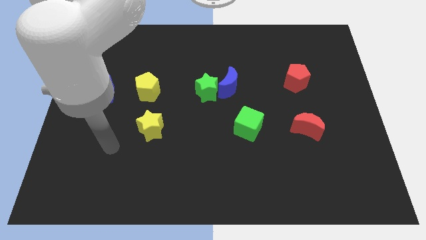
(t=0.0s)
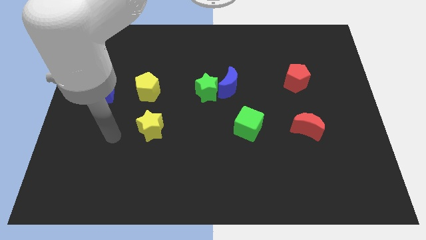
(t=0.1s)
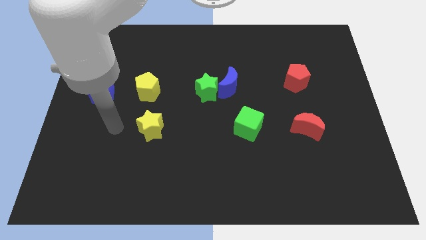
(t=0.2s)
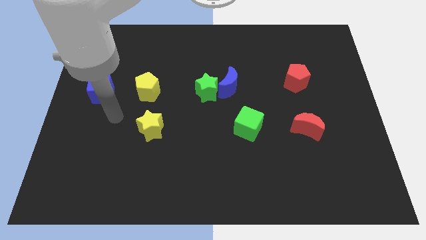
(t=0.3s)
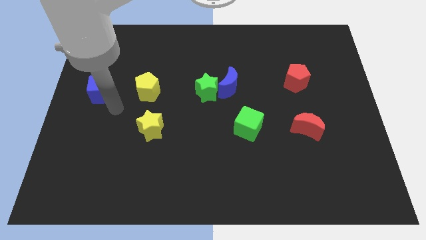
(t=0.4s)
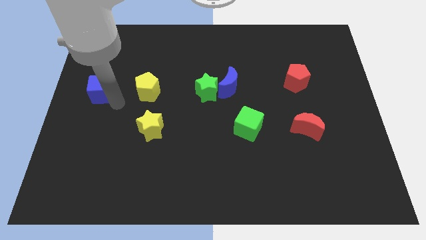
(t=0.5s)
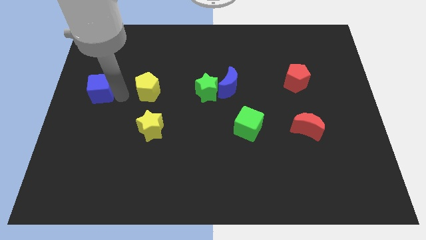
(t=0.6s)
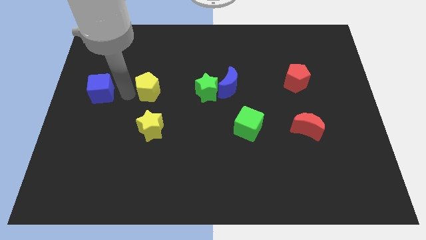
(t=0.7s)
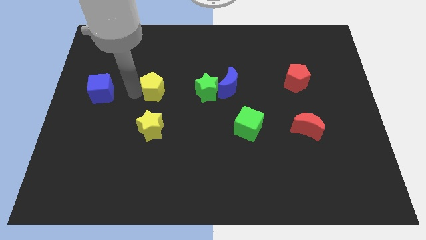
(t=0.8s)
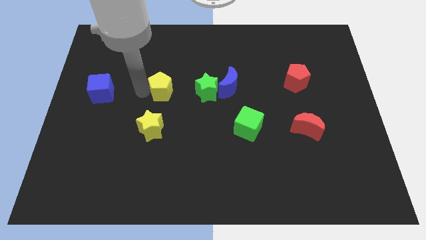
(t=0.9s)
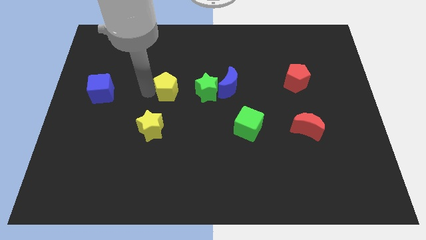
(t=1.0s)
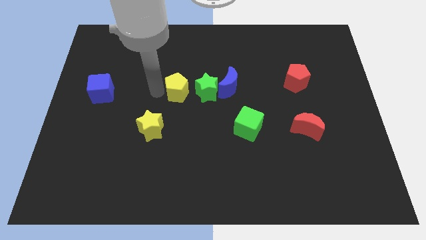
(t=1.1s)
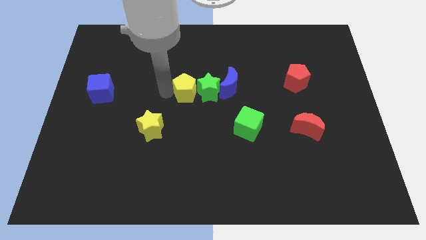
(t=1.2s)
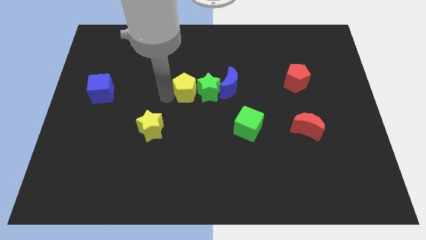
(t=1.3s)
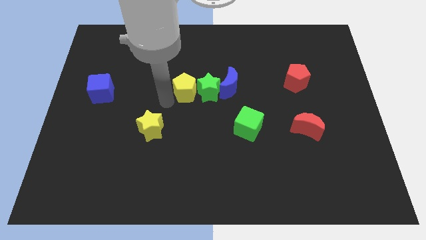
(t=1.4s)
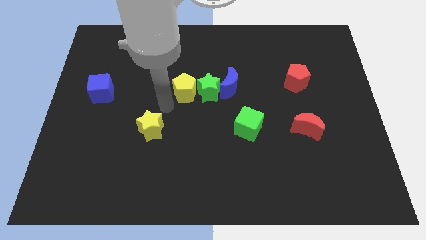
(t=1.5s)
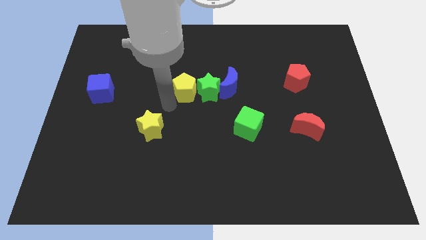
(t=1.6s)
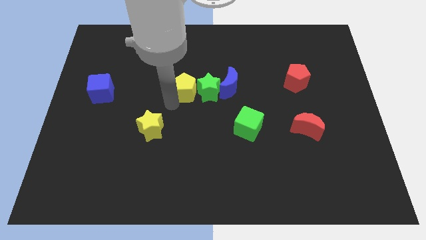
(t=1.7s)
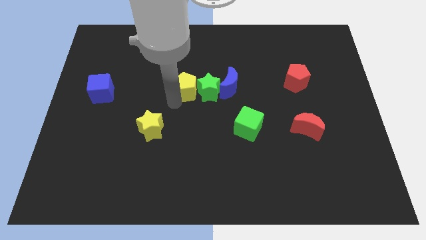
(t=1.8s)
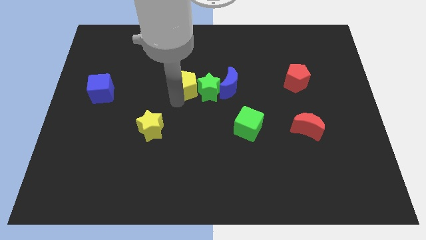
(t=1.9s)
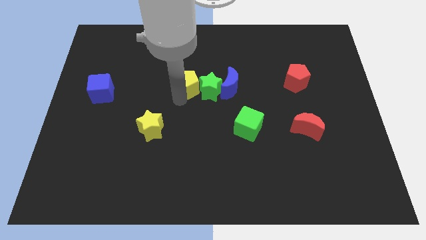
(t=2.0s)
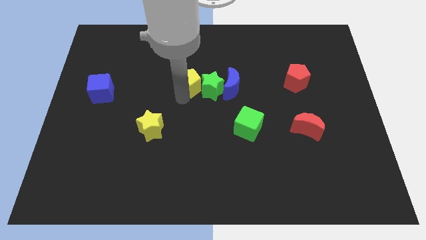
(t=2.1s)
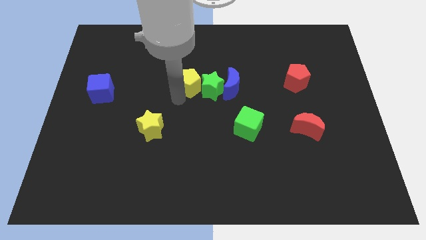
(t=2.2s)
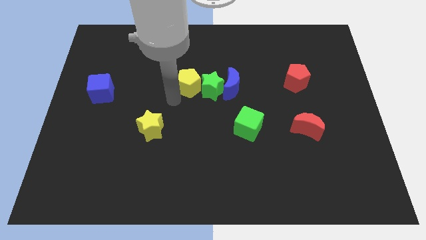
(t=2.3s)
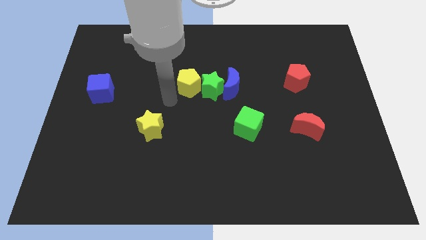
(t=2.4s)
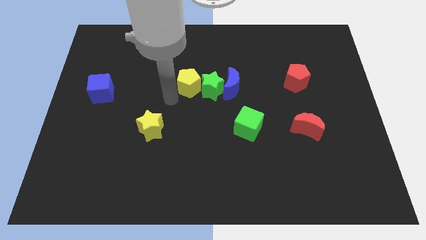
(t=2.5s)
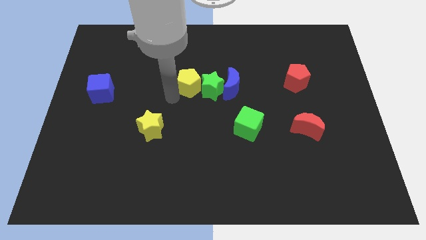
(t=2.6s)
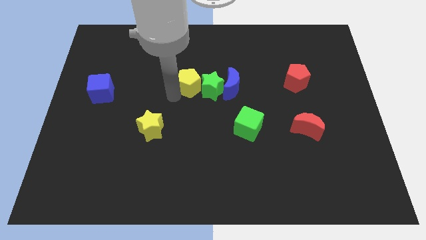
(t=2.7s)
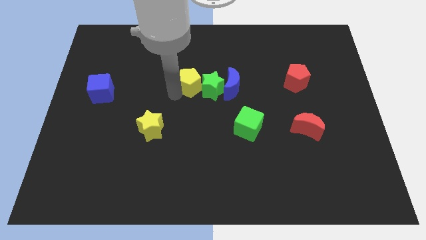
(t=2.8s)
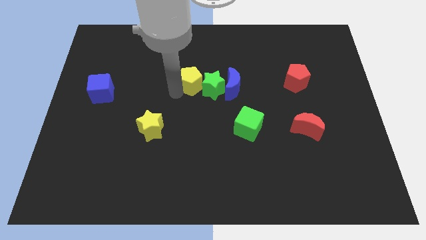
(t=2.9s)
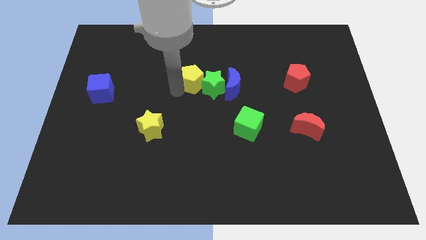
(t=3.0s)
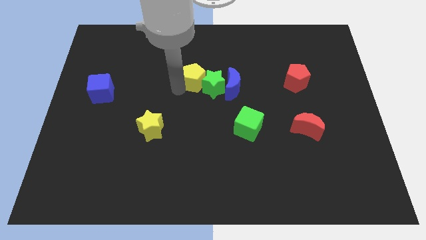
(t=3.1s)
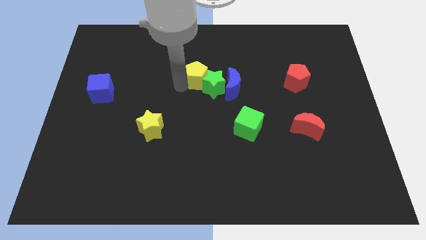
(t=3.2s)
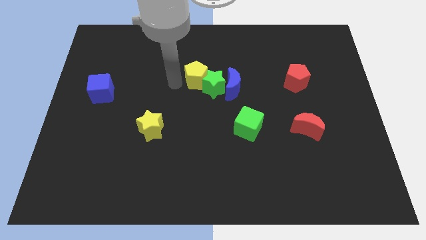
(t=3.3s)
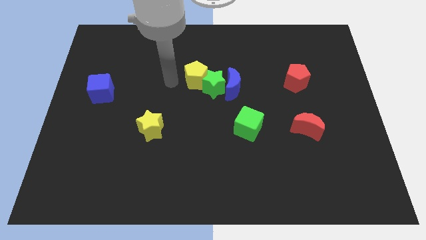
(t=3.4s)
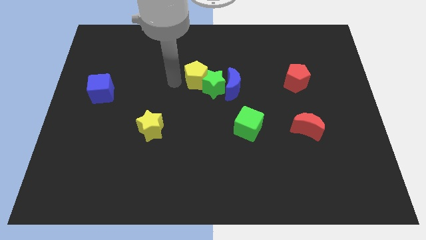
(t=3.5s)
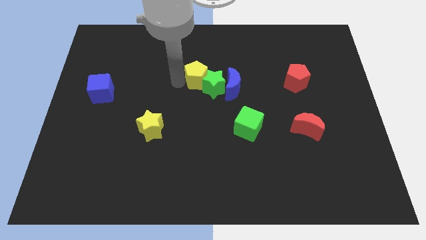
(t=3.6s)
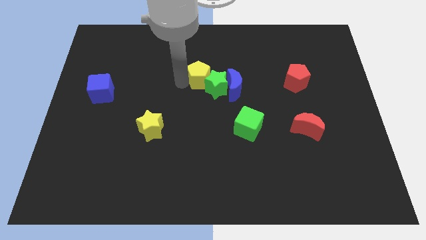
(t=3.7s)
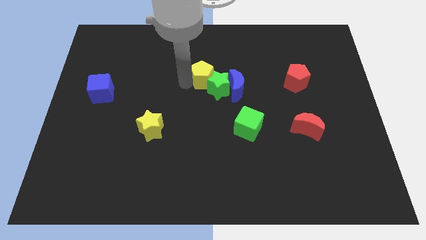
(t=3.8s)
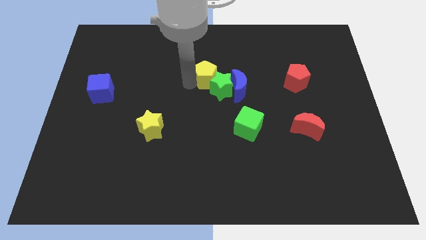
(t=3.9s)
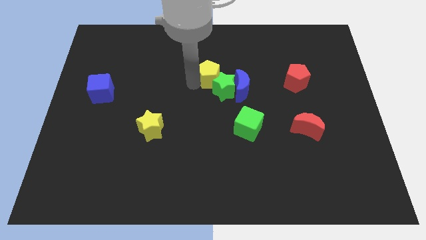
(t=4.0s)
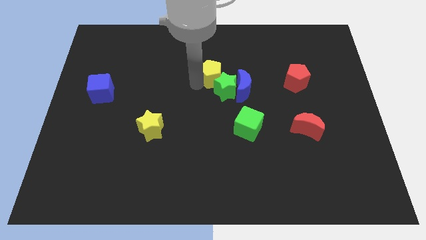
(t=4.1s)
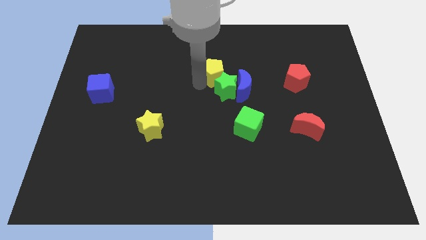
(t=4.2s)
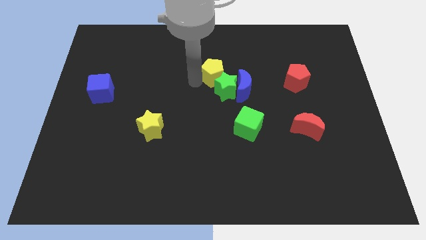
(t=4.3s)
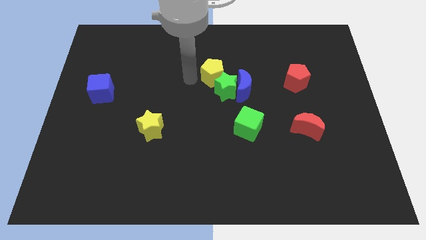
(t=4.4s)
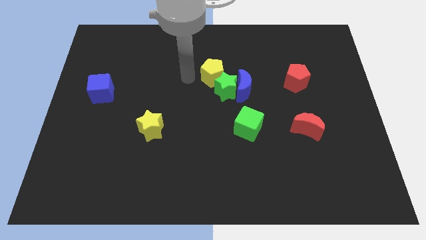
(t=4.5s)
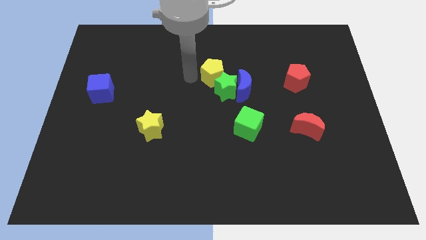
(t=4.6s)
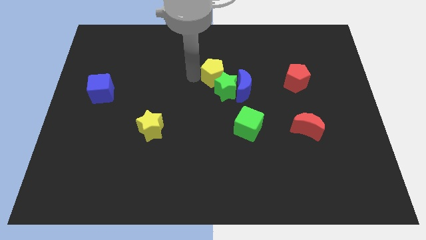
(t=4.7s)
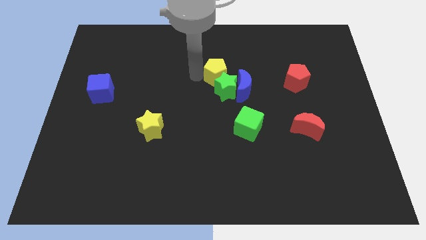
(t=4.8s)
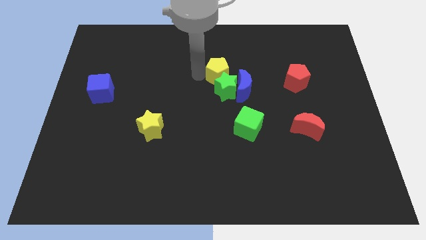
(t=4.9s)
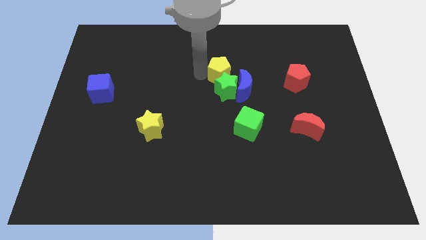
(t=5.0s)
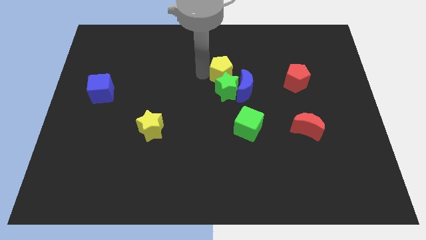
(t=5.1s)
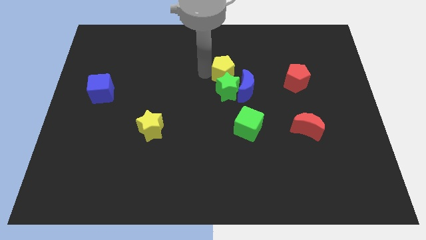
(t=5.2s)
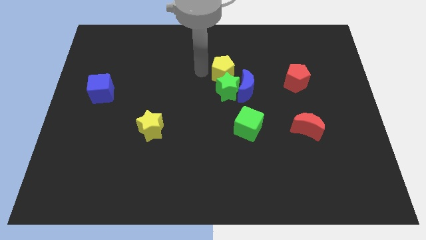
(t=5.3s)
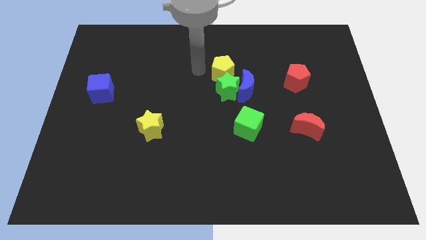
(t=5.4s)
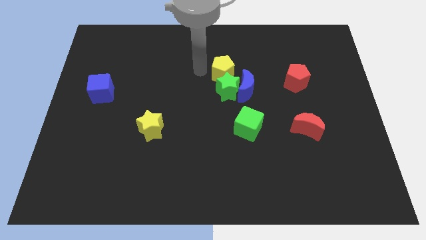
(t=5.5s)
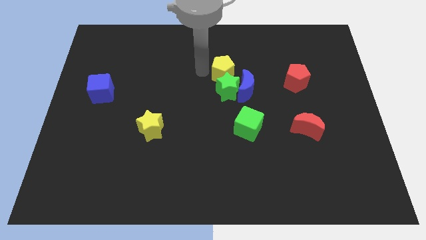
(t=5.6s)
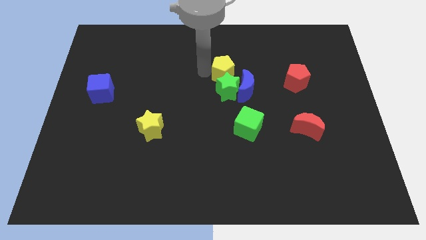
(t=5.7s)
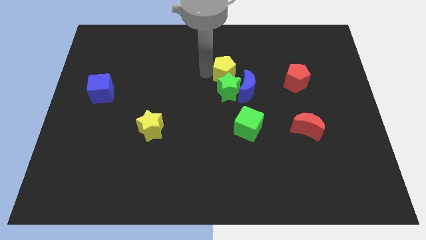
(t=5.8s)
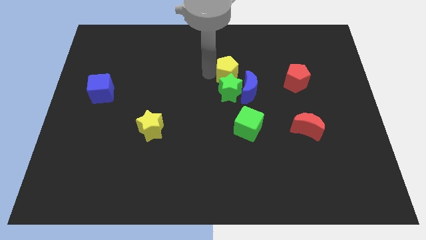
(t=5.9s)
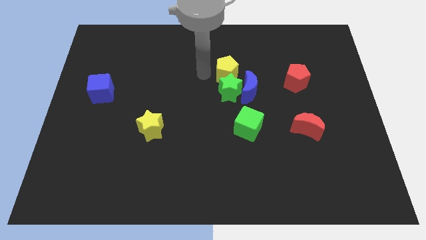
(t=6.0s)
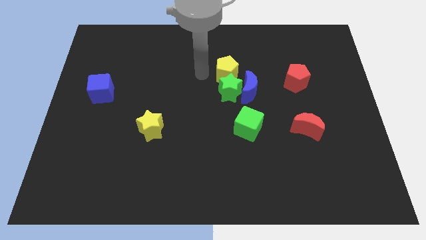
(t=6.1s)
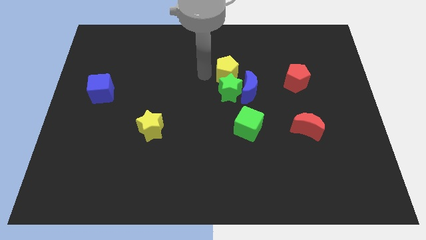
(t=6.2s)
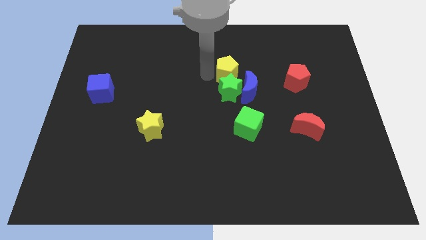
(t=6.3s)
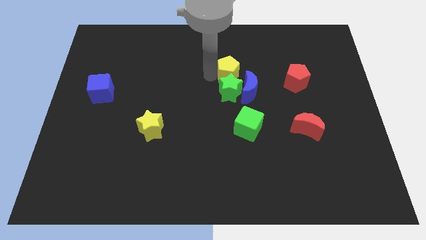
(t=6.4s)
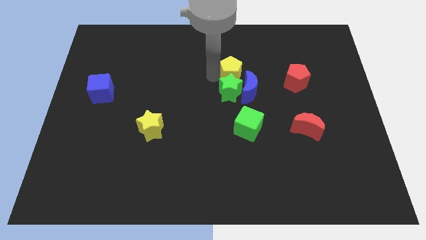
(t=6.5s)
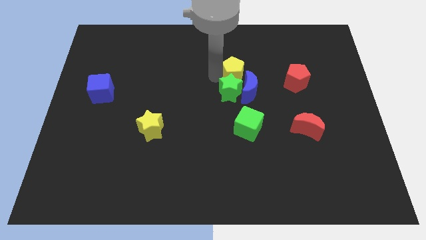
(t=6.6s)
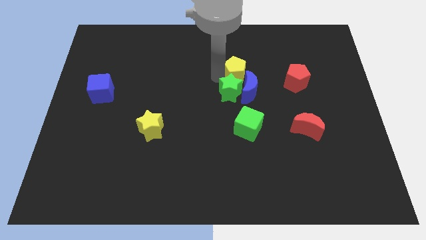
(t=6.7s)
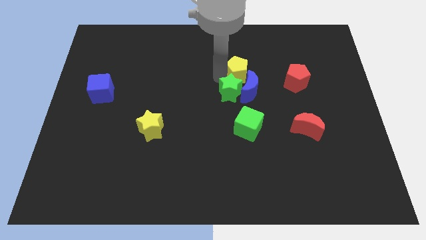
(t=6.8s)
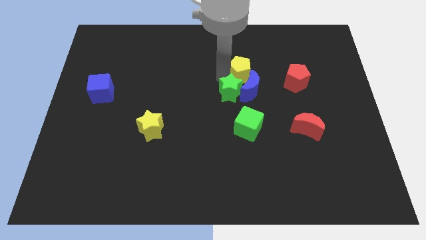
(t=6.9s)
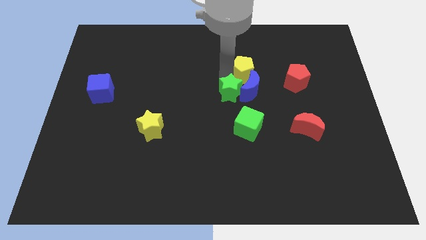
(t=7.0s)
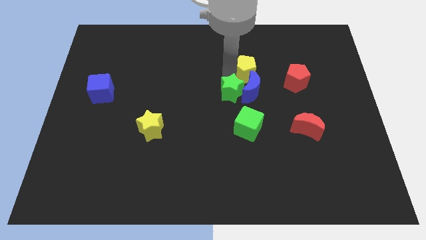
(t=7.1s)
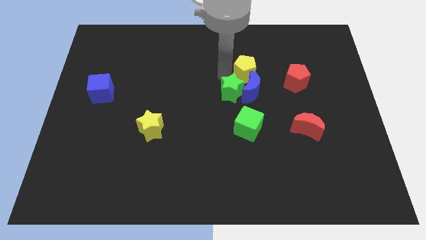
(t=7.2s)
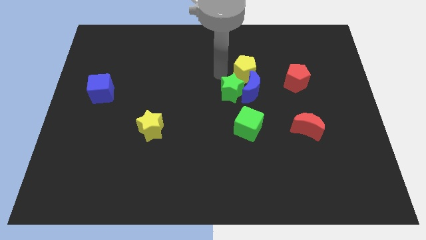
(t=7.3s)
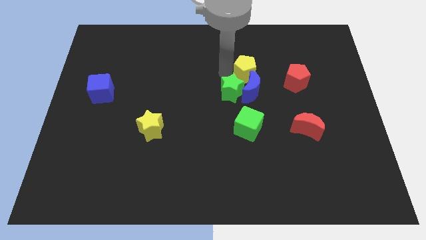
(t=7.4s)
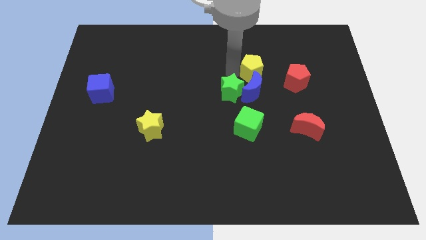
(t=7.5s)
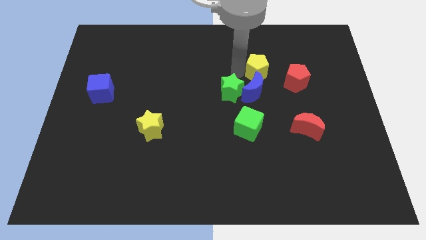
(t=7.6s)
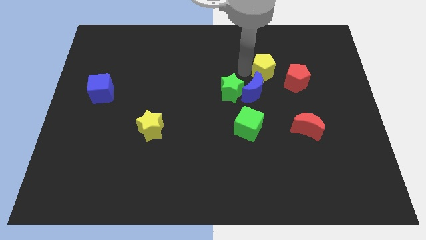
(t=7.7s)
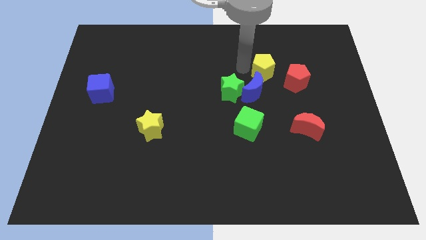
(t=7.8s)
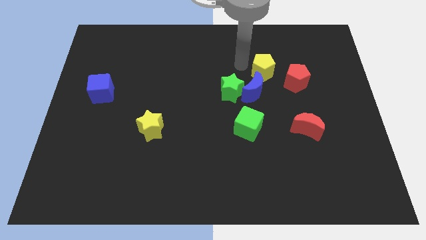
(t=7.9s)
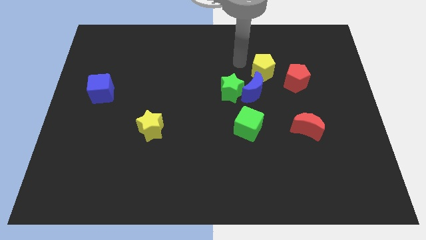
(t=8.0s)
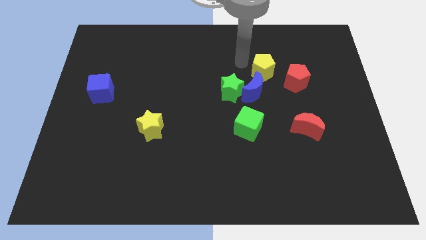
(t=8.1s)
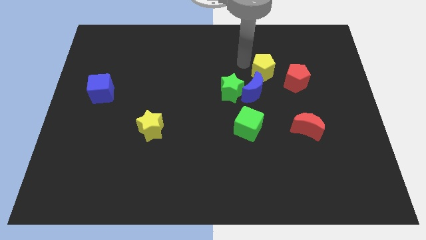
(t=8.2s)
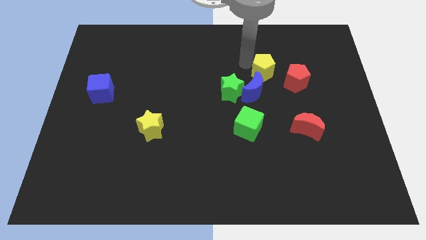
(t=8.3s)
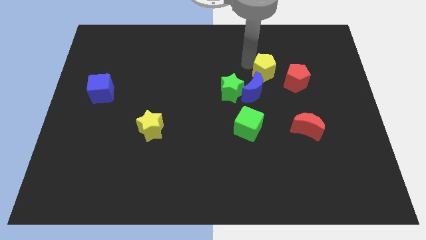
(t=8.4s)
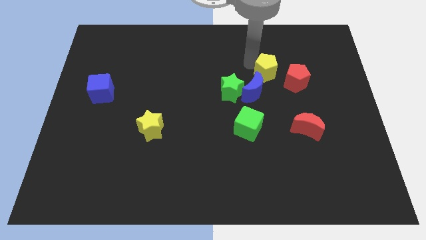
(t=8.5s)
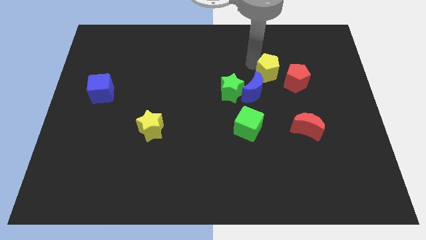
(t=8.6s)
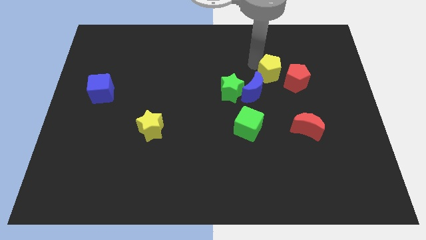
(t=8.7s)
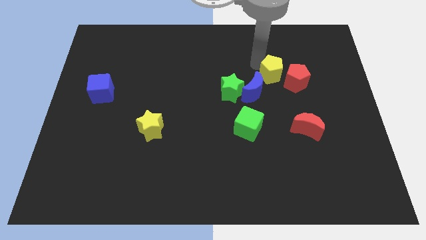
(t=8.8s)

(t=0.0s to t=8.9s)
put the yellow pentagon close to the red pentagon
